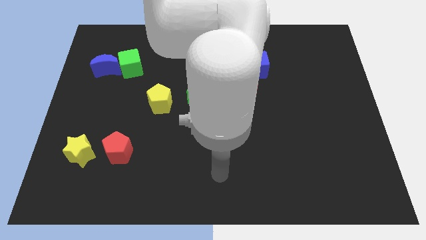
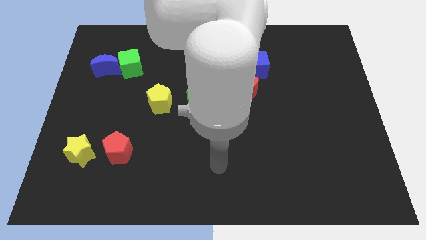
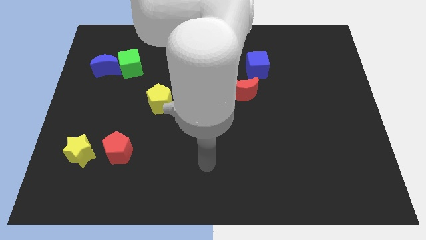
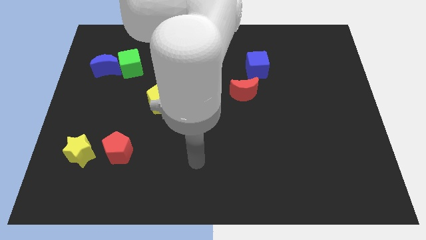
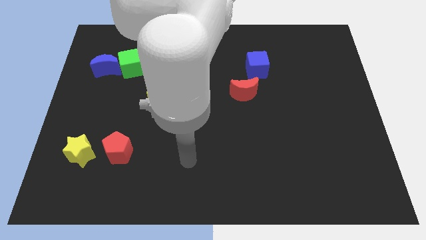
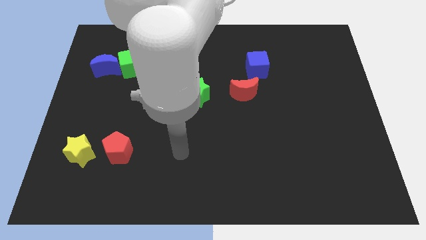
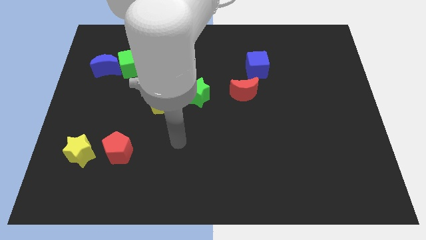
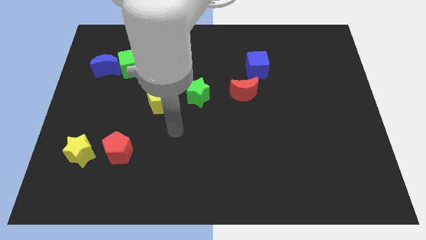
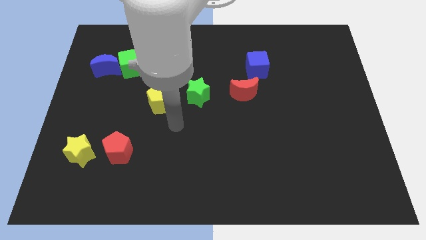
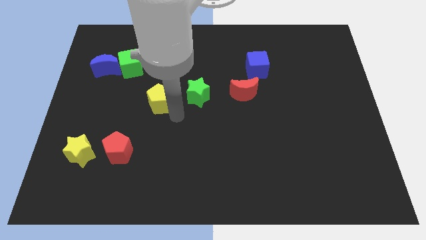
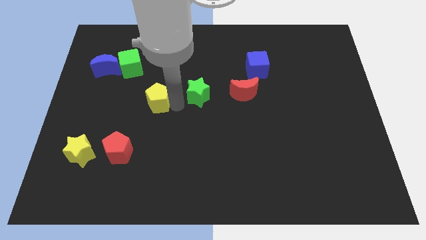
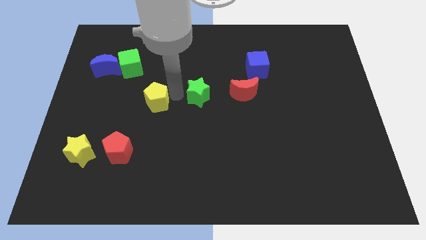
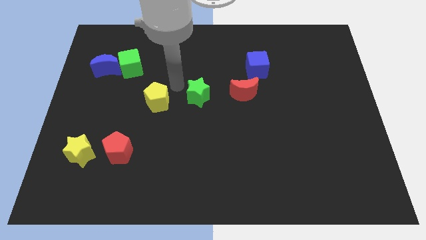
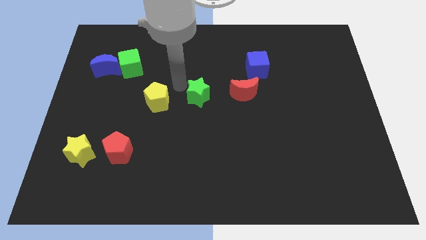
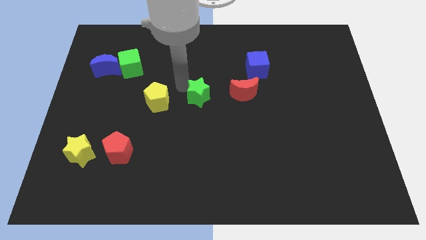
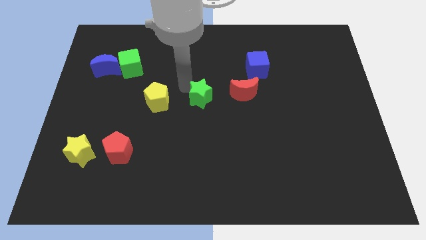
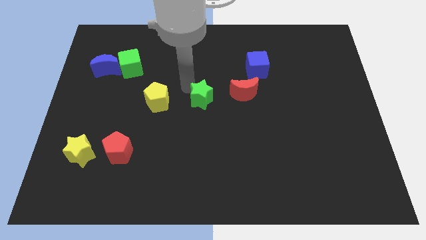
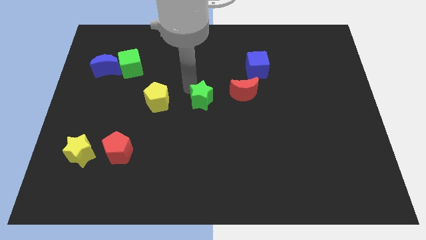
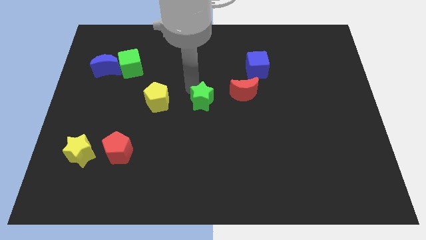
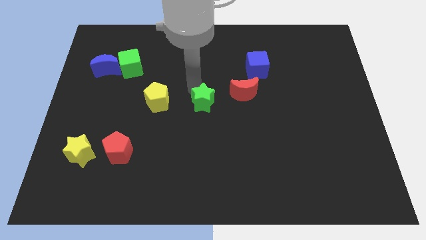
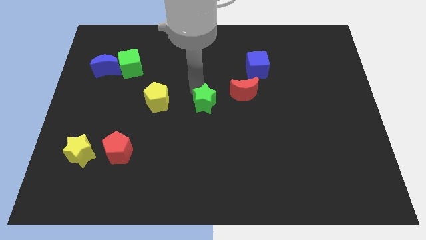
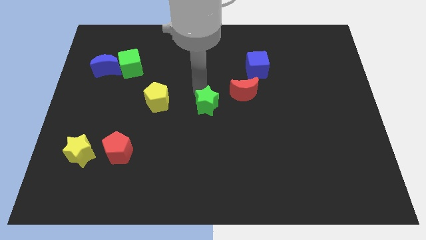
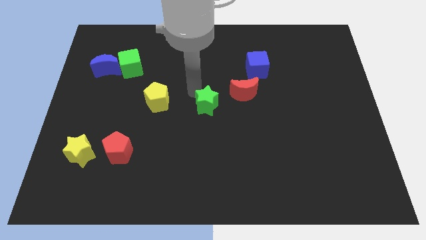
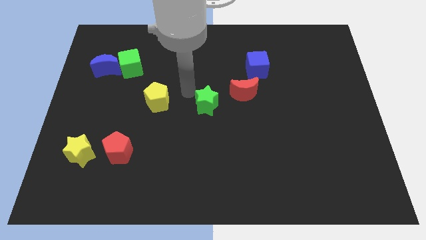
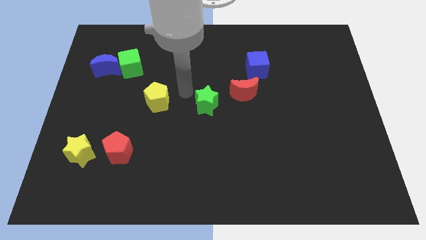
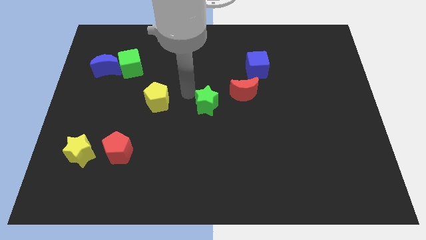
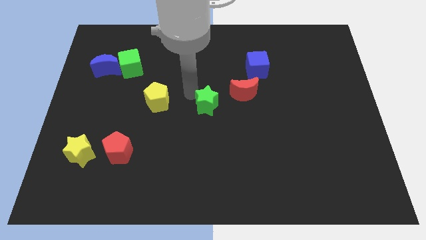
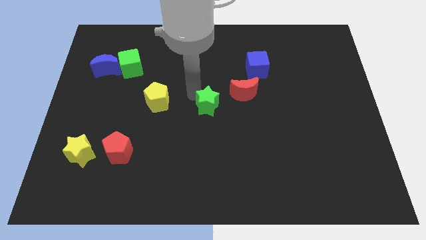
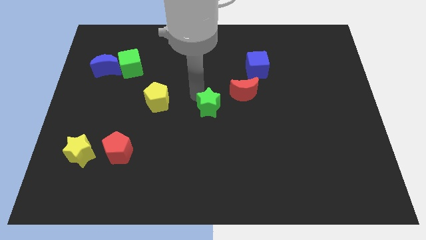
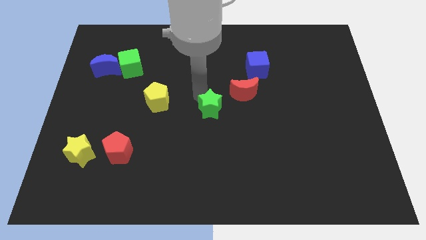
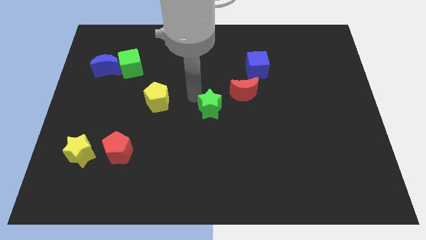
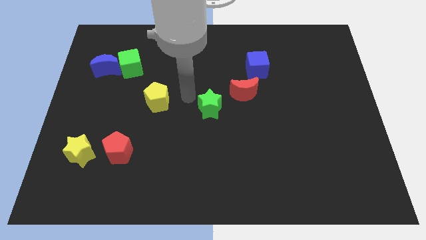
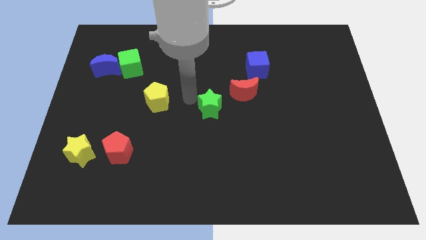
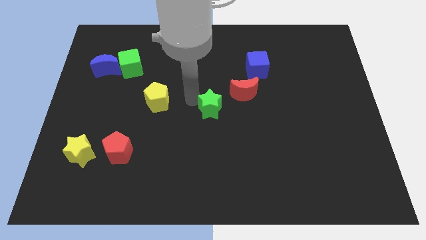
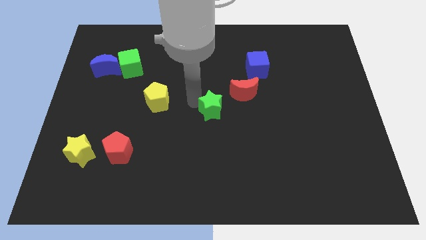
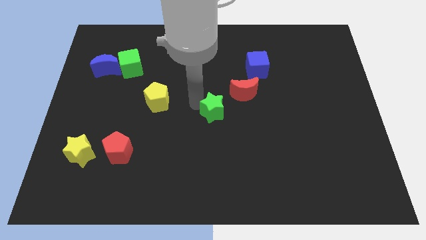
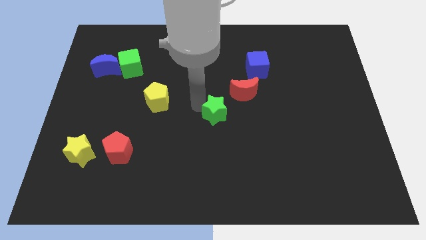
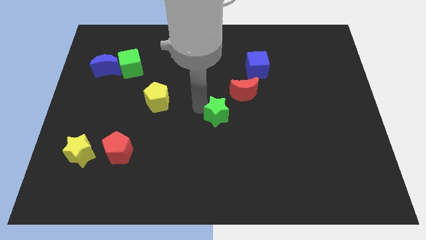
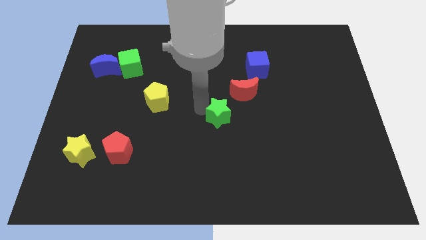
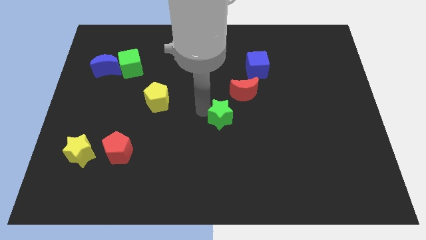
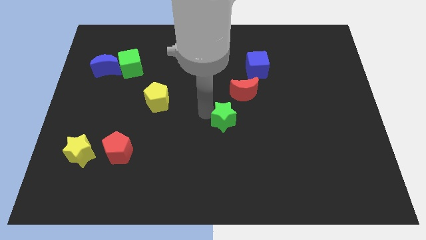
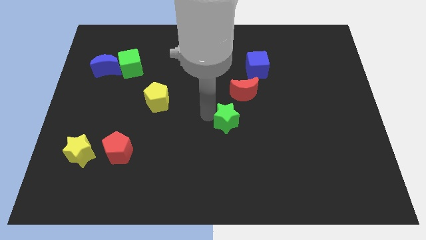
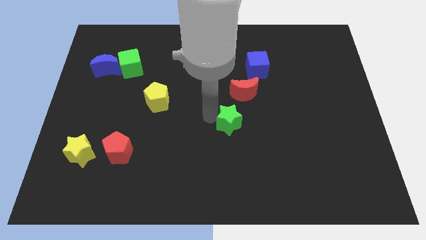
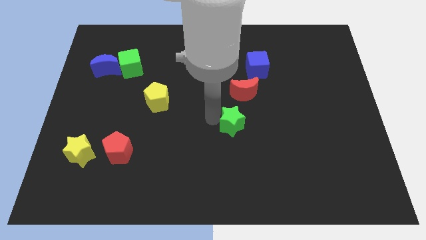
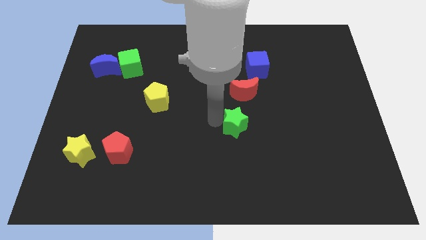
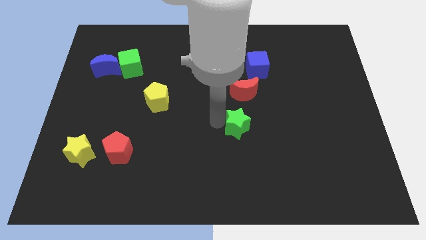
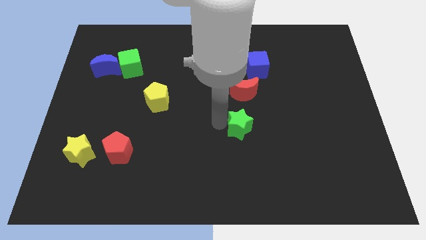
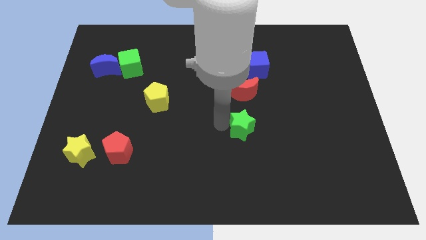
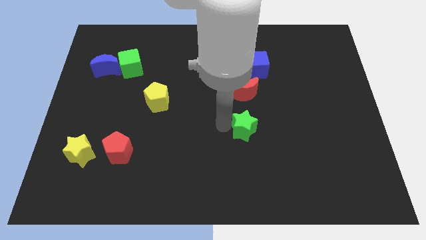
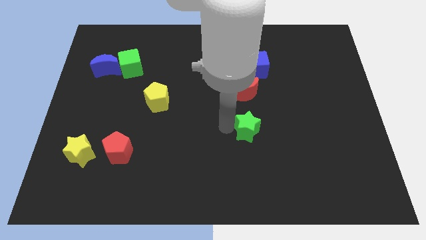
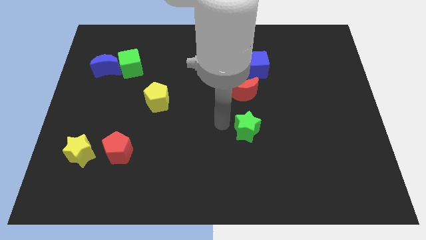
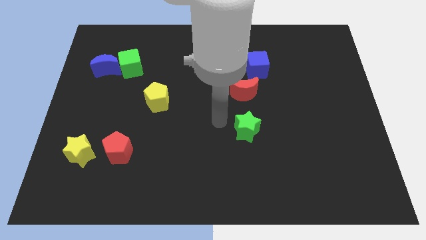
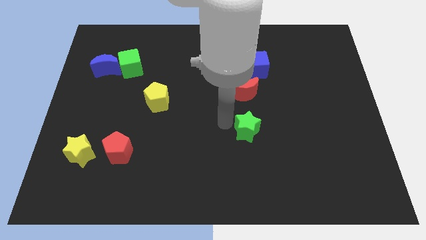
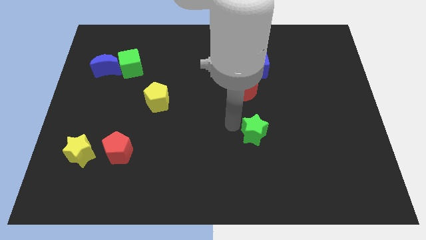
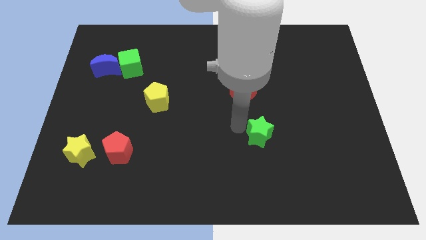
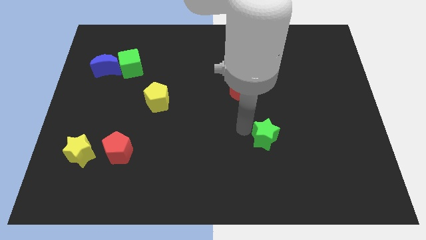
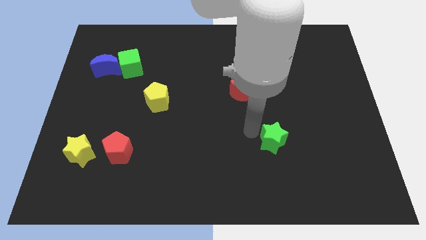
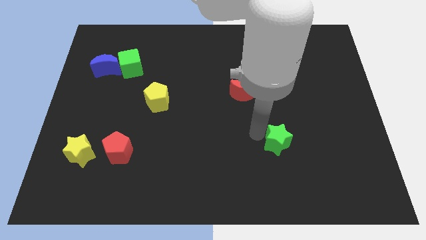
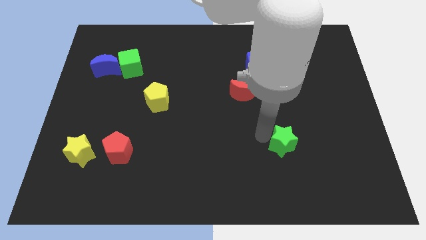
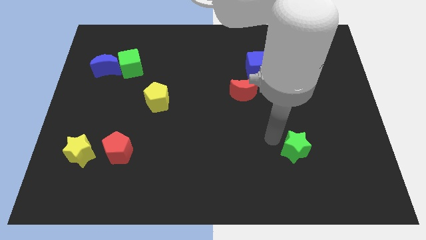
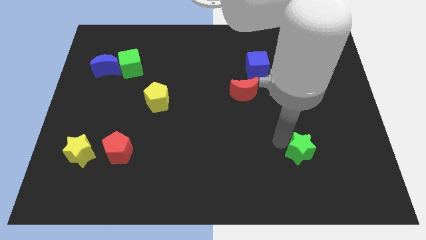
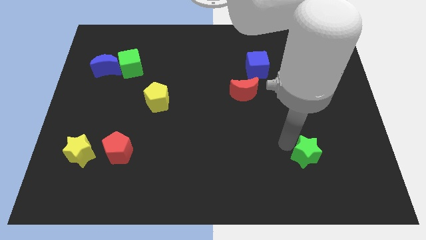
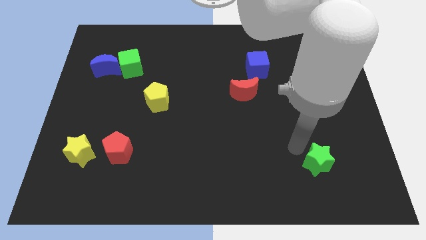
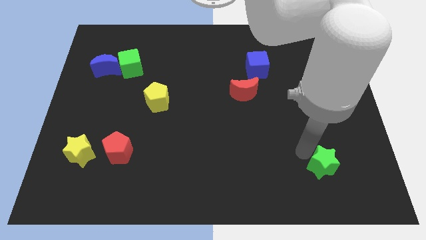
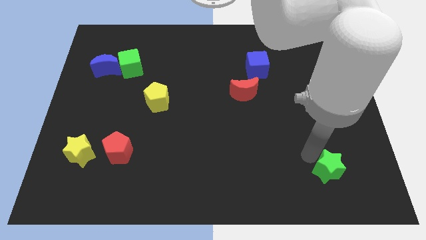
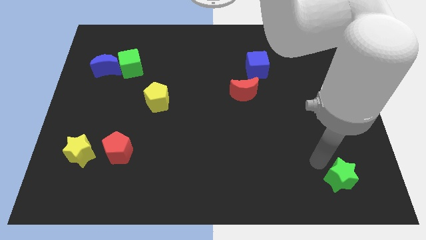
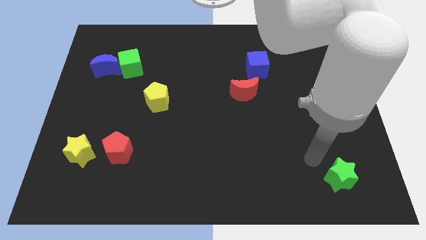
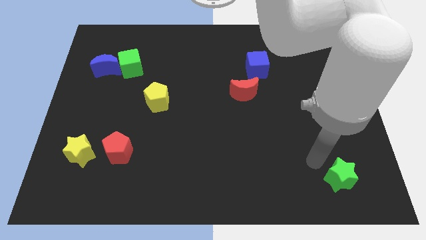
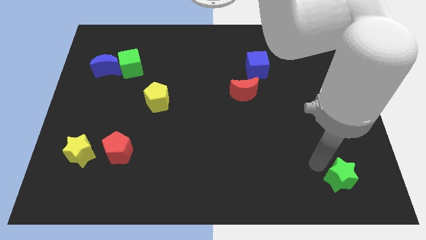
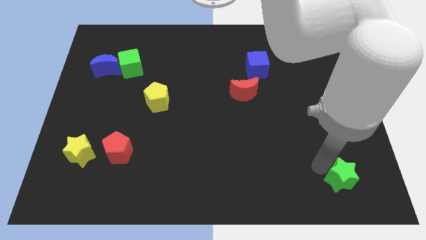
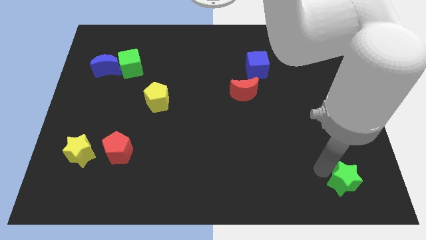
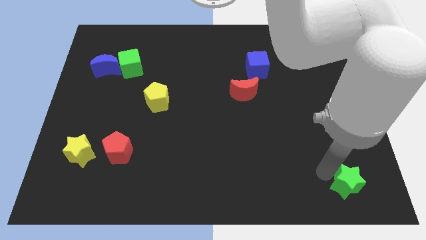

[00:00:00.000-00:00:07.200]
push the green star to the bottom right

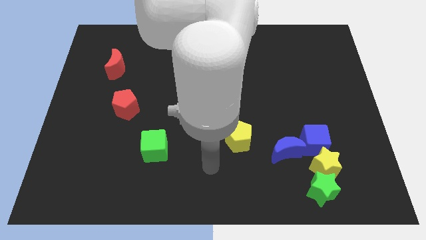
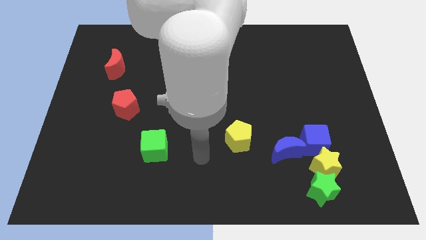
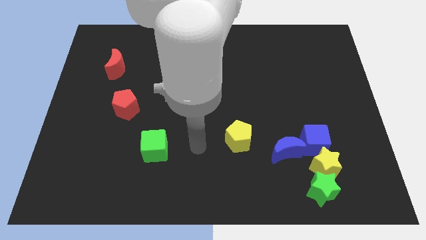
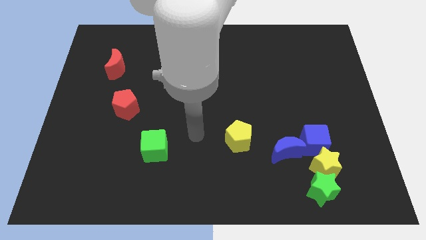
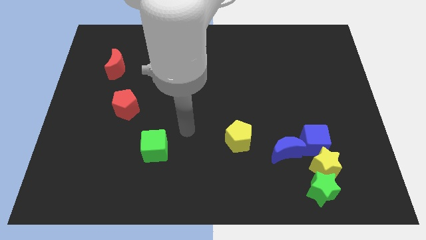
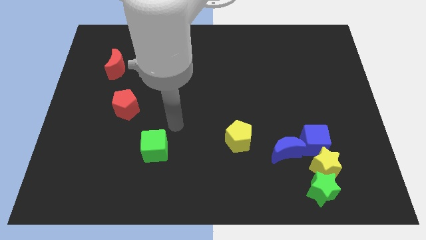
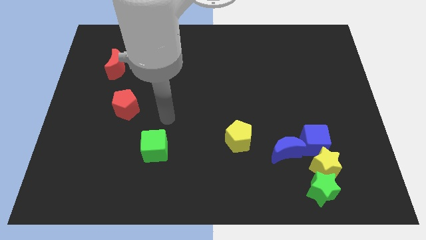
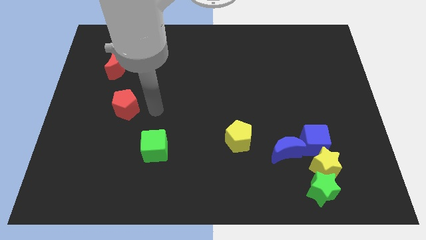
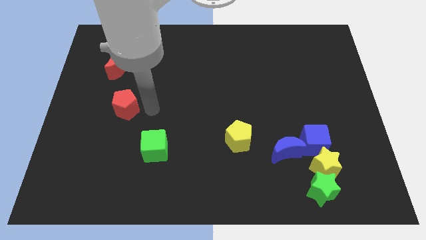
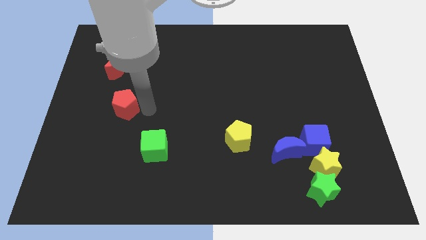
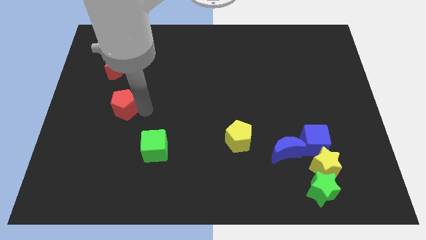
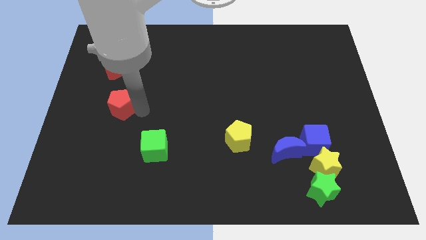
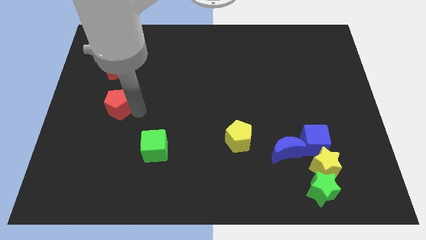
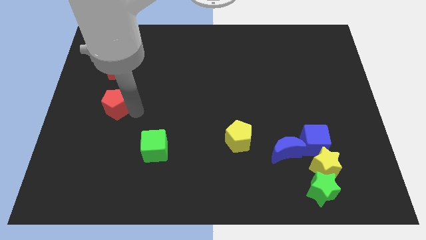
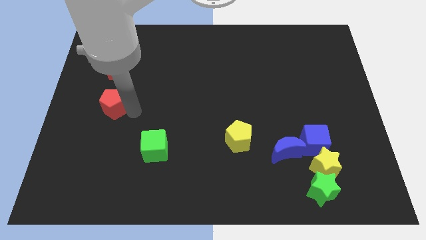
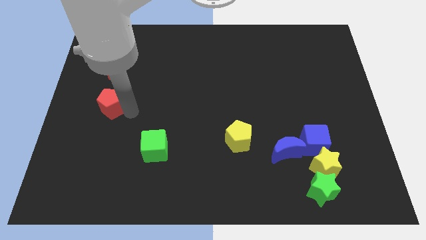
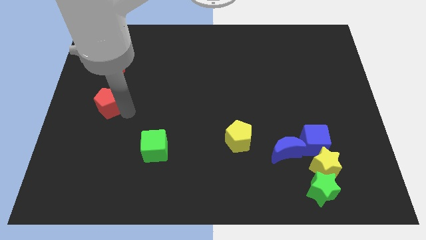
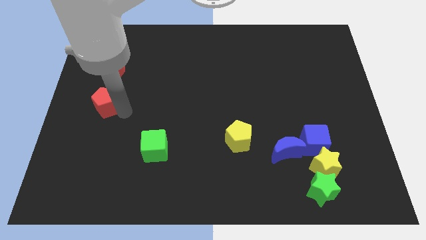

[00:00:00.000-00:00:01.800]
move the red pentagon to the center left
